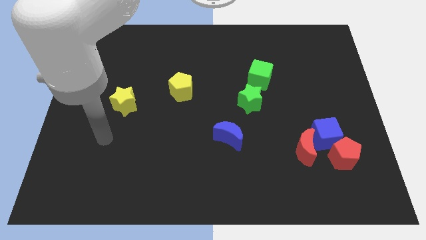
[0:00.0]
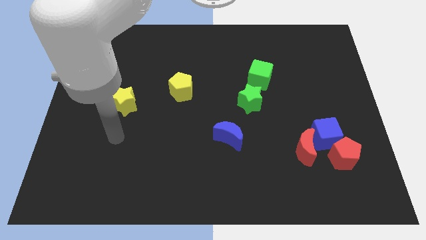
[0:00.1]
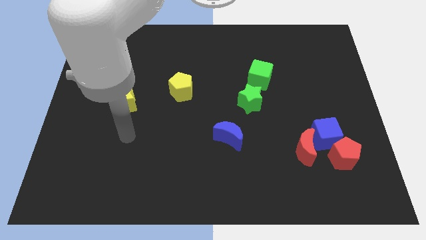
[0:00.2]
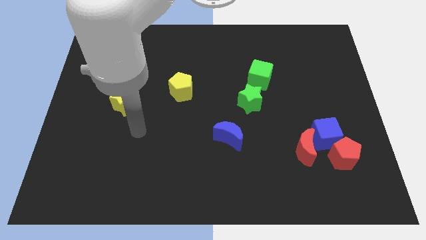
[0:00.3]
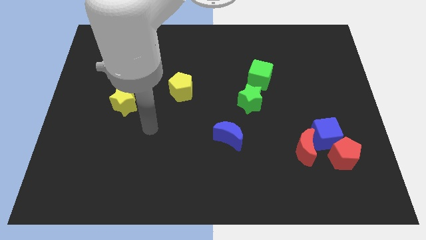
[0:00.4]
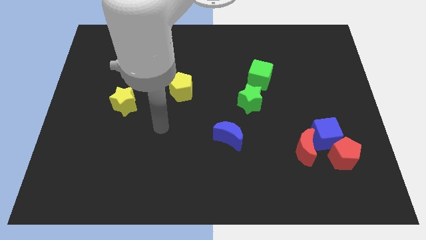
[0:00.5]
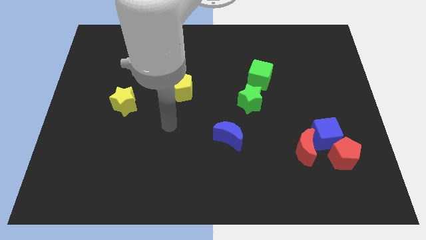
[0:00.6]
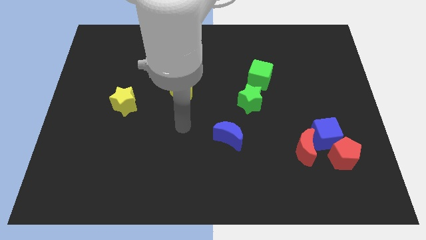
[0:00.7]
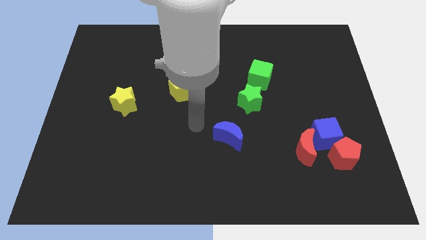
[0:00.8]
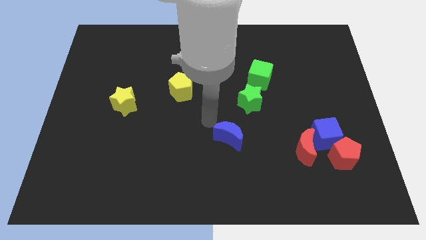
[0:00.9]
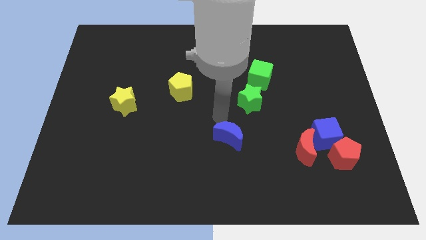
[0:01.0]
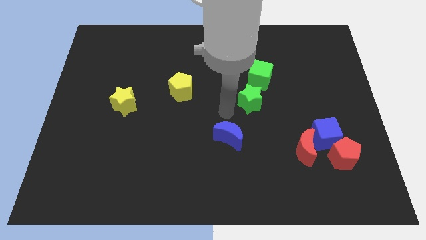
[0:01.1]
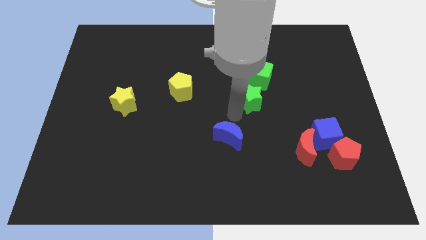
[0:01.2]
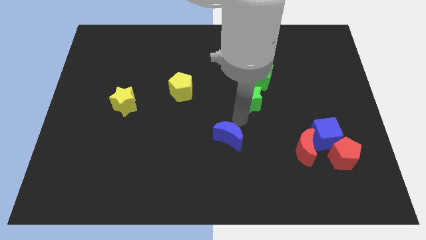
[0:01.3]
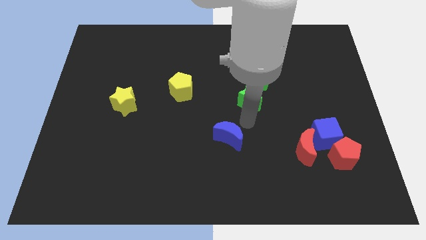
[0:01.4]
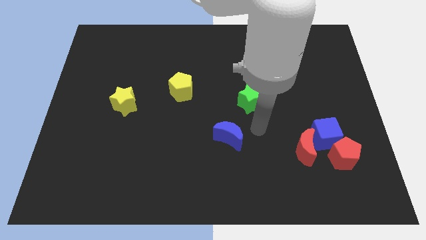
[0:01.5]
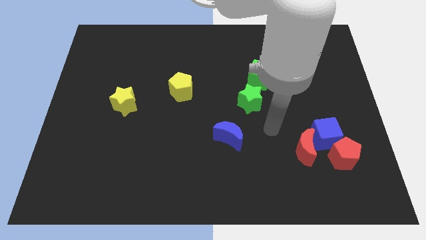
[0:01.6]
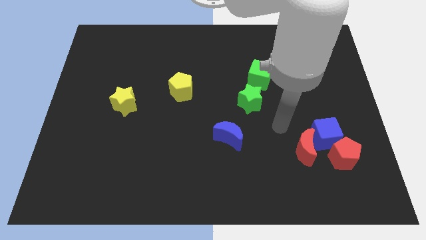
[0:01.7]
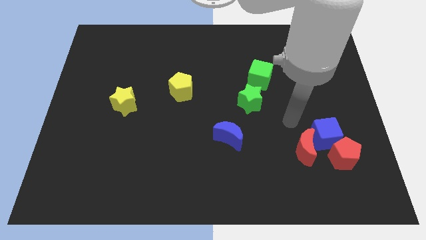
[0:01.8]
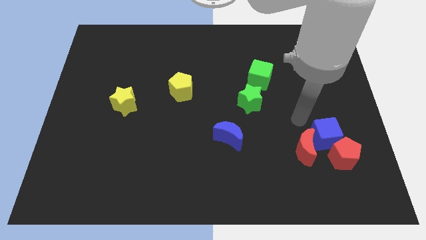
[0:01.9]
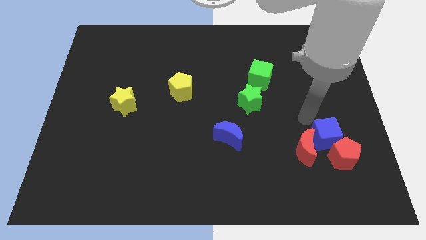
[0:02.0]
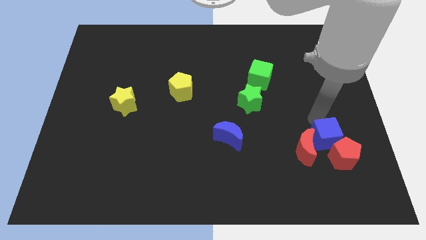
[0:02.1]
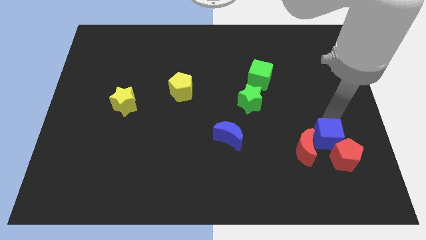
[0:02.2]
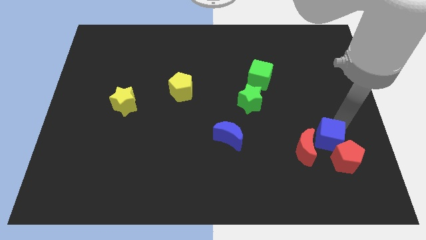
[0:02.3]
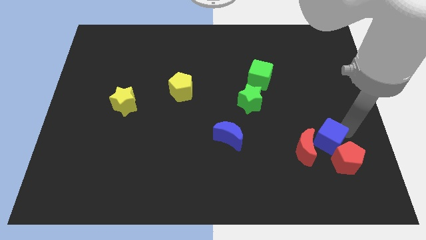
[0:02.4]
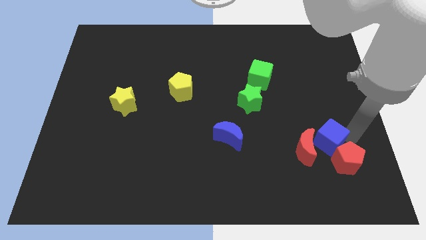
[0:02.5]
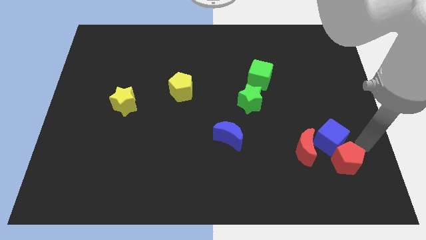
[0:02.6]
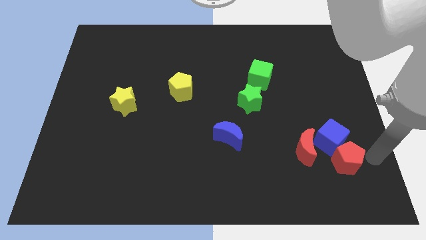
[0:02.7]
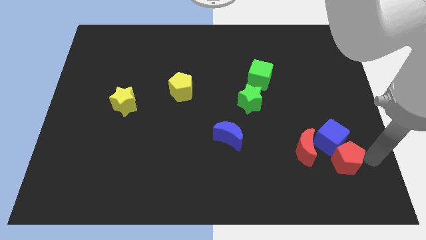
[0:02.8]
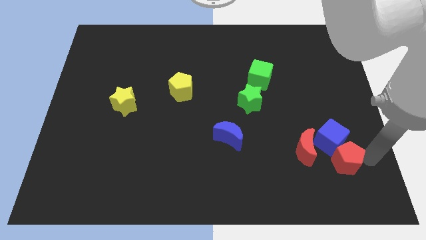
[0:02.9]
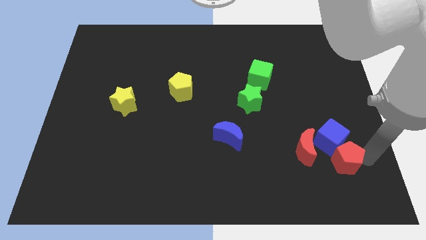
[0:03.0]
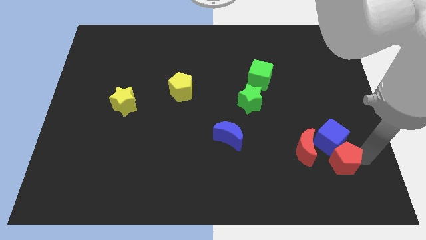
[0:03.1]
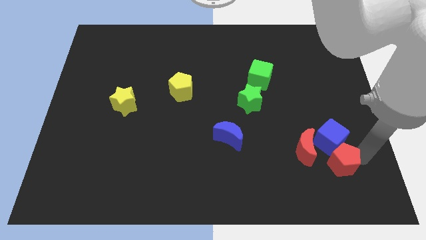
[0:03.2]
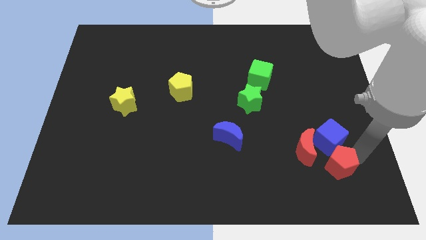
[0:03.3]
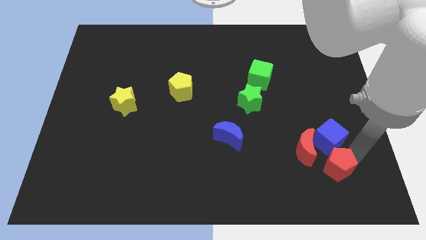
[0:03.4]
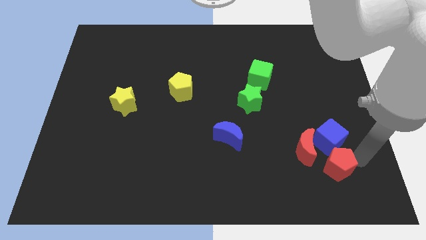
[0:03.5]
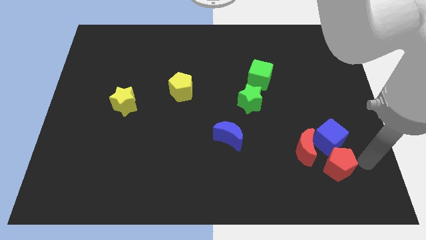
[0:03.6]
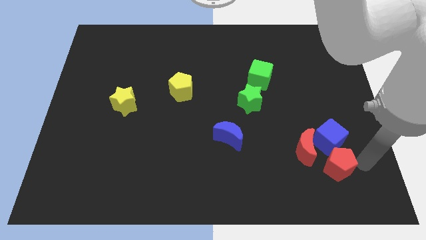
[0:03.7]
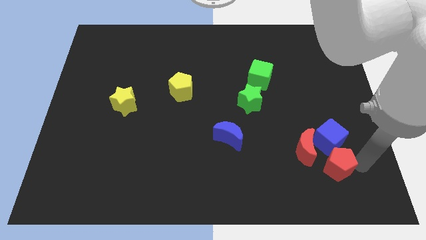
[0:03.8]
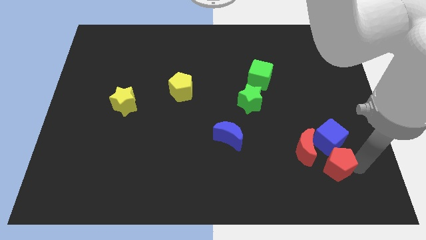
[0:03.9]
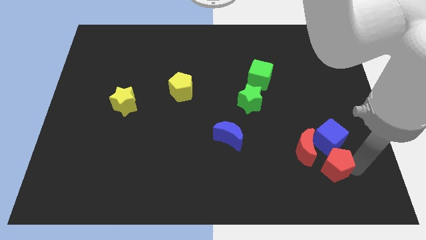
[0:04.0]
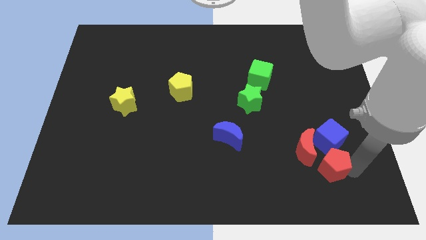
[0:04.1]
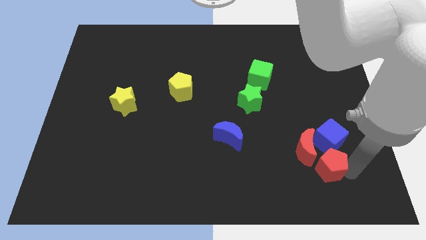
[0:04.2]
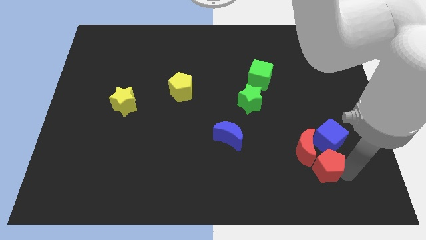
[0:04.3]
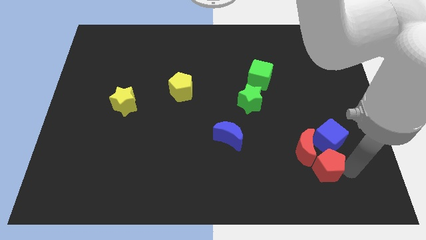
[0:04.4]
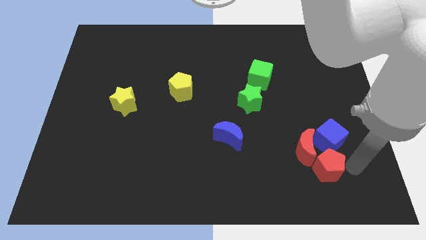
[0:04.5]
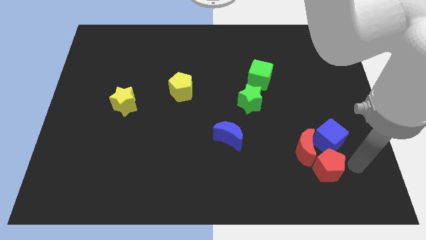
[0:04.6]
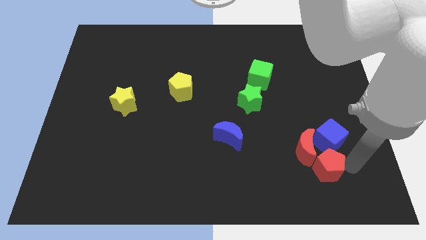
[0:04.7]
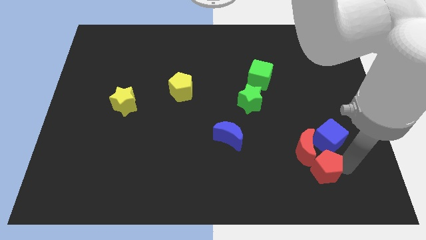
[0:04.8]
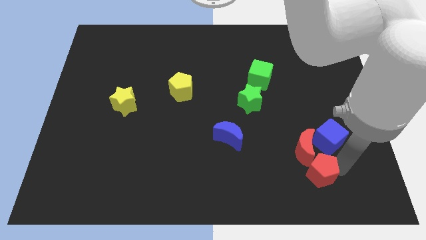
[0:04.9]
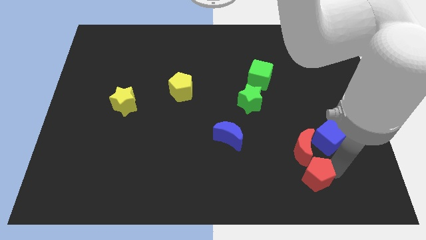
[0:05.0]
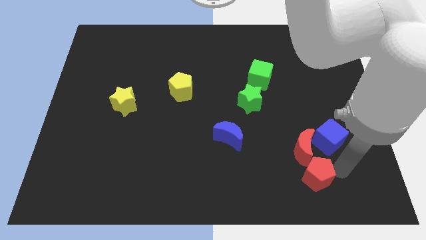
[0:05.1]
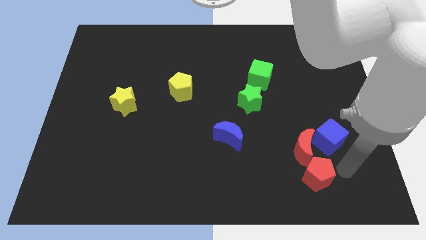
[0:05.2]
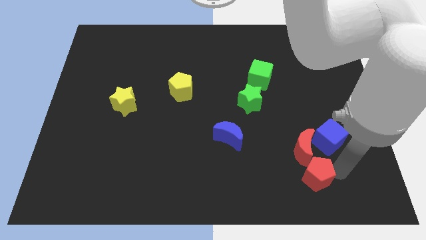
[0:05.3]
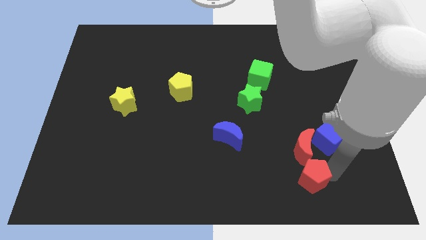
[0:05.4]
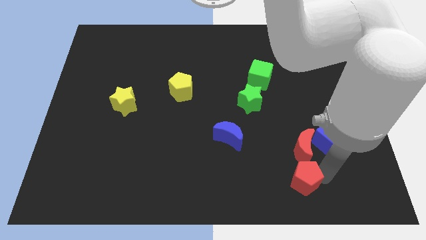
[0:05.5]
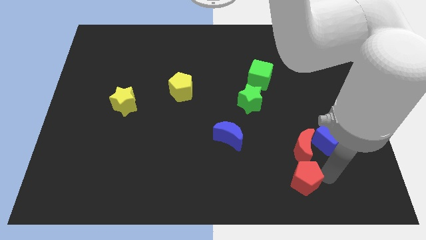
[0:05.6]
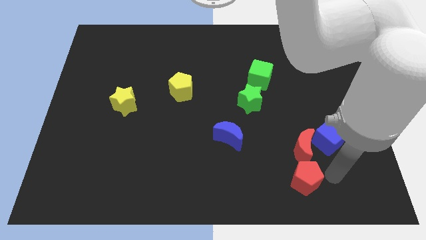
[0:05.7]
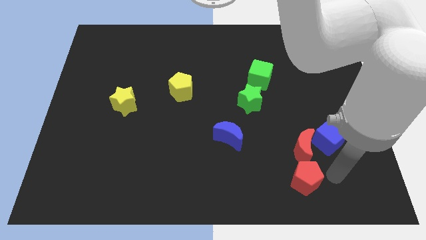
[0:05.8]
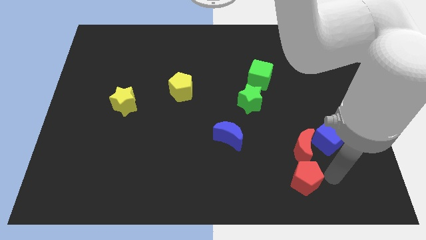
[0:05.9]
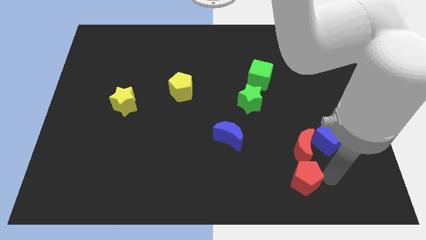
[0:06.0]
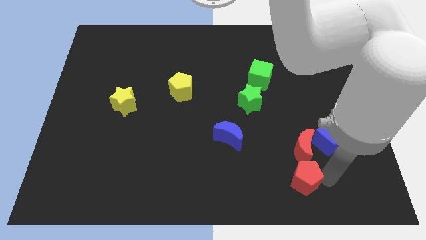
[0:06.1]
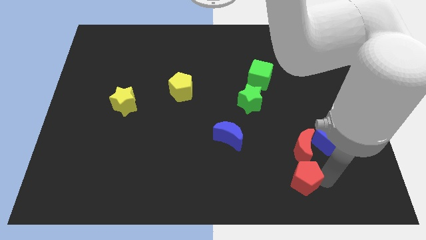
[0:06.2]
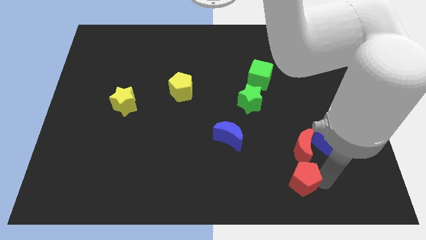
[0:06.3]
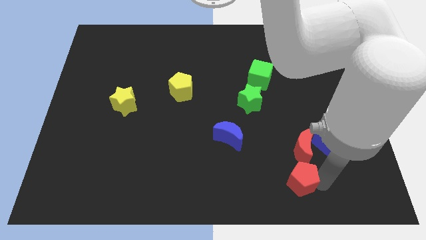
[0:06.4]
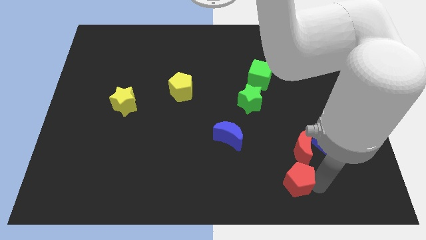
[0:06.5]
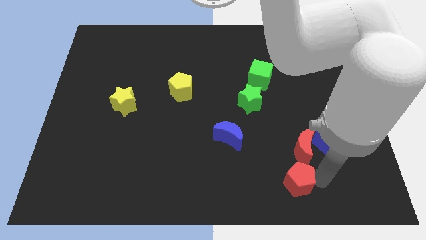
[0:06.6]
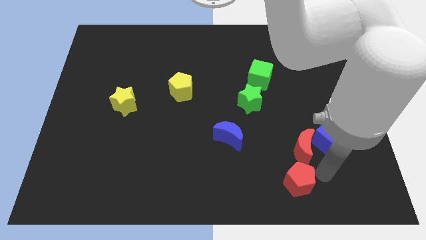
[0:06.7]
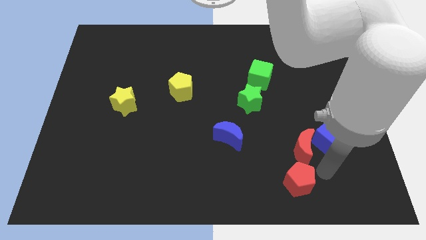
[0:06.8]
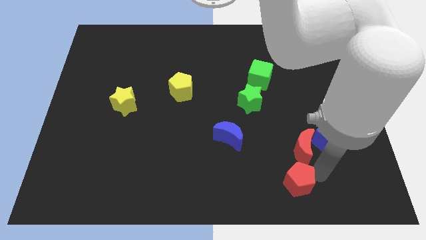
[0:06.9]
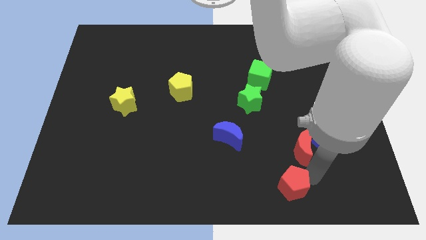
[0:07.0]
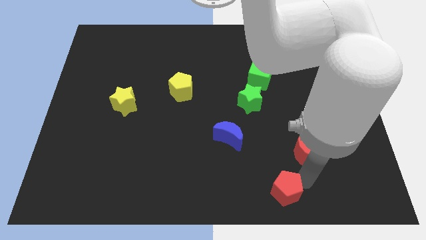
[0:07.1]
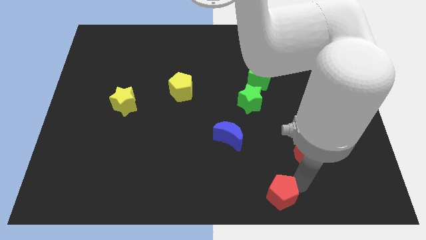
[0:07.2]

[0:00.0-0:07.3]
slide the red pentagon to the bottom side
